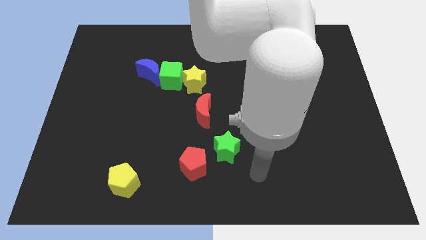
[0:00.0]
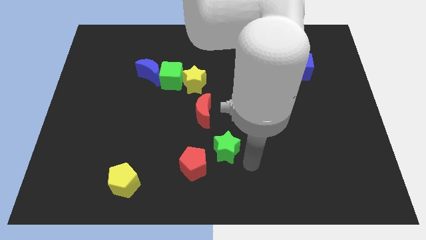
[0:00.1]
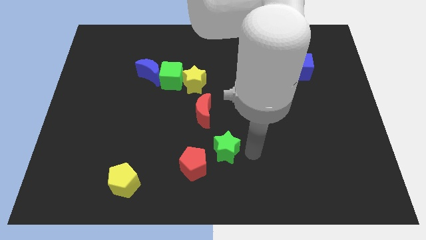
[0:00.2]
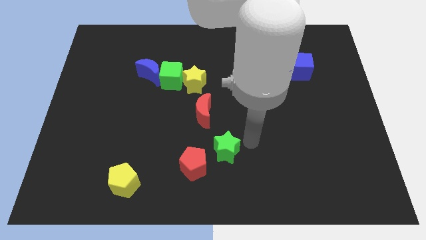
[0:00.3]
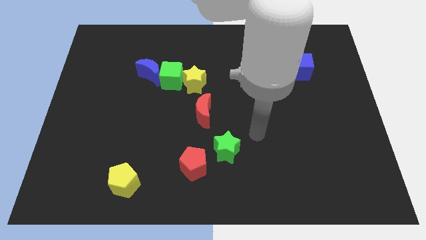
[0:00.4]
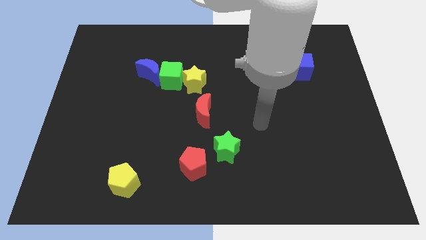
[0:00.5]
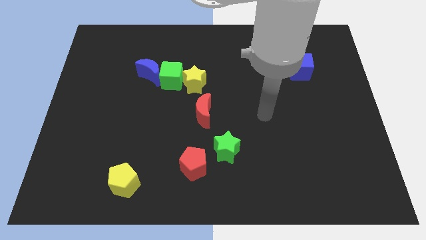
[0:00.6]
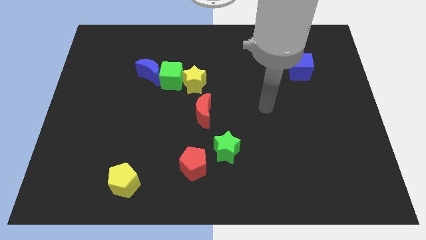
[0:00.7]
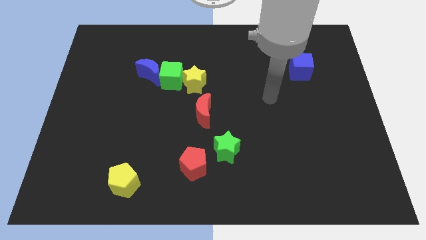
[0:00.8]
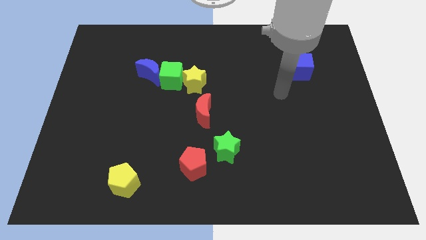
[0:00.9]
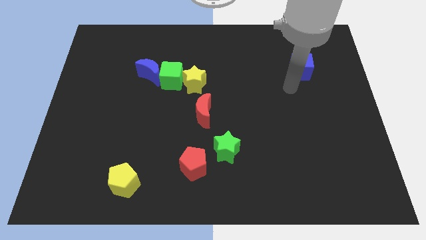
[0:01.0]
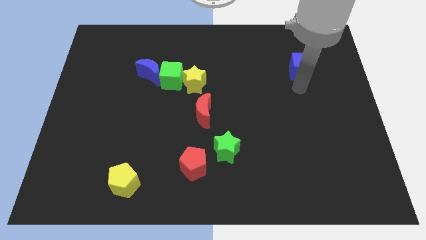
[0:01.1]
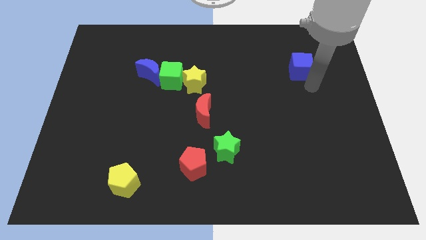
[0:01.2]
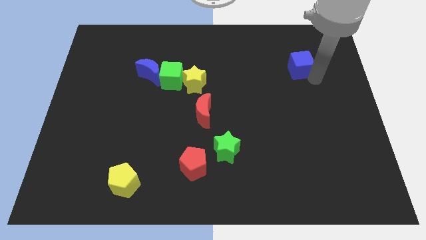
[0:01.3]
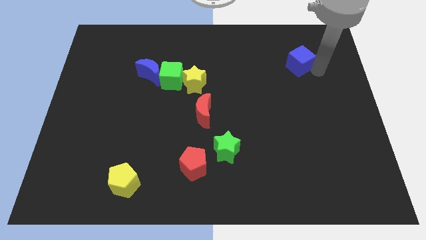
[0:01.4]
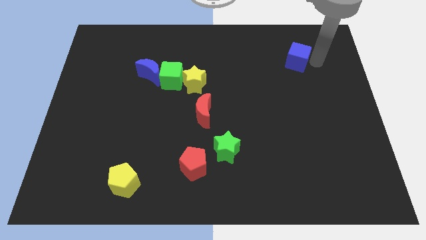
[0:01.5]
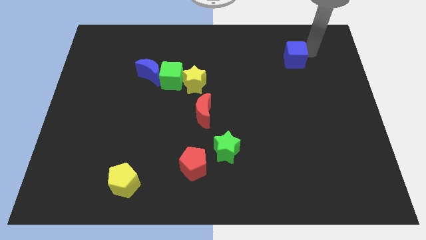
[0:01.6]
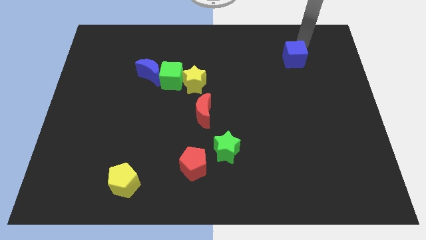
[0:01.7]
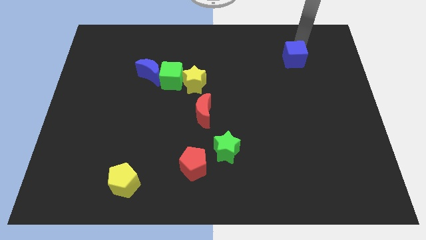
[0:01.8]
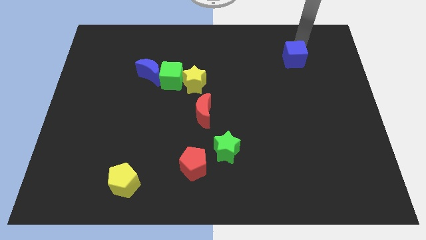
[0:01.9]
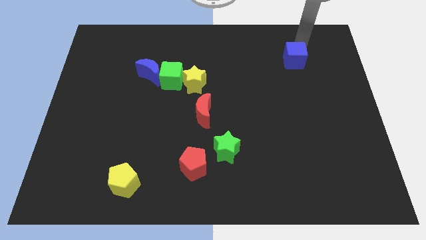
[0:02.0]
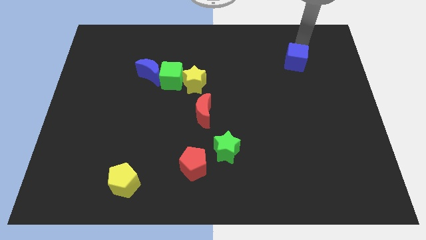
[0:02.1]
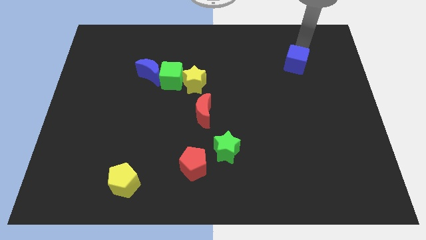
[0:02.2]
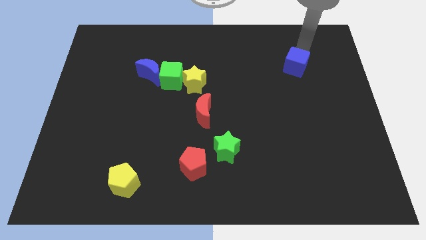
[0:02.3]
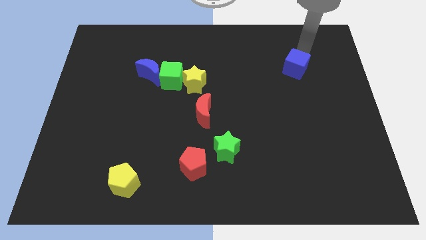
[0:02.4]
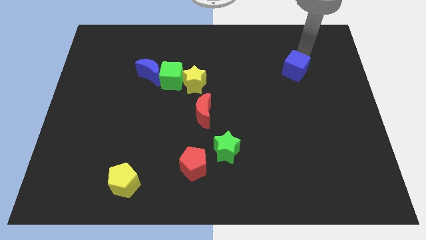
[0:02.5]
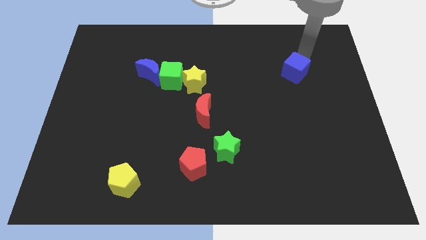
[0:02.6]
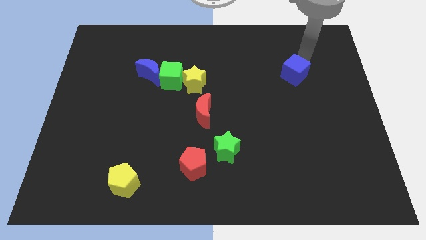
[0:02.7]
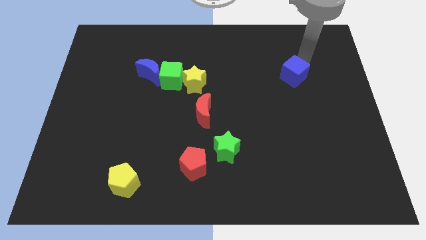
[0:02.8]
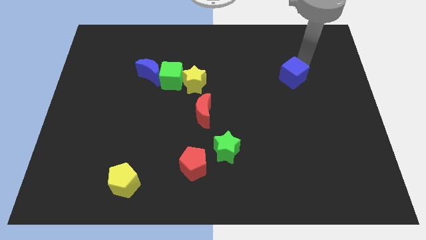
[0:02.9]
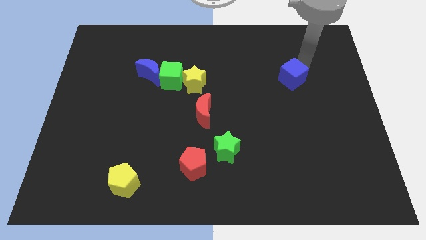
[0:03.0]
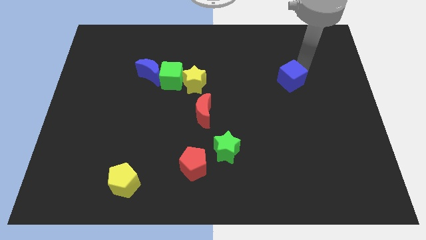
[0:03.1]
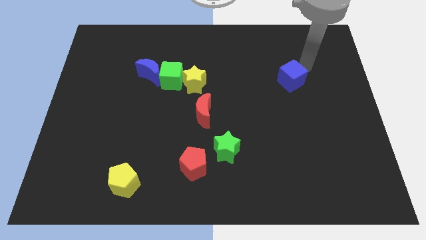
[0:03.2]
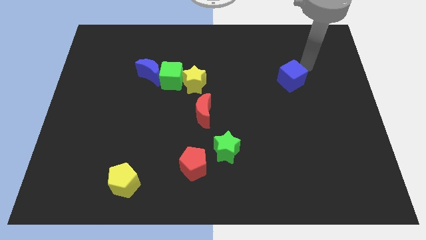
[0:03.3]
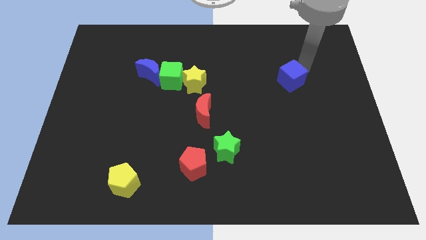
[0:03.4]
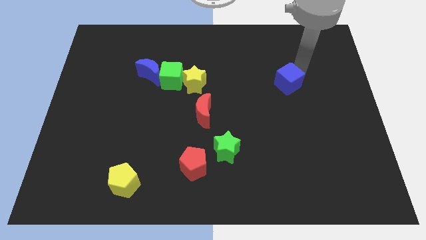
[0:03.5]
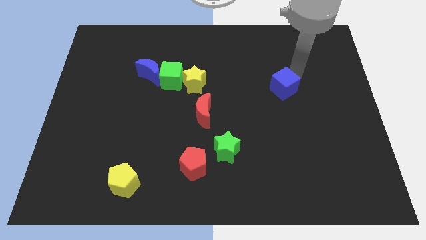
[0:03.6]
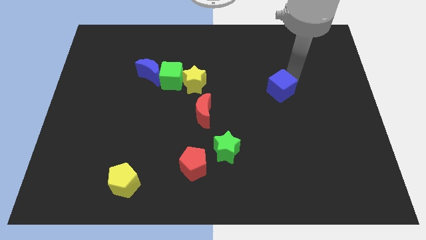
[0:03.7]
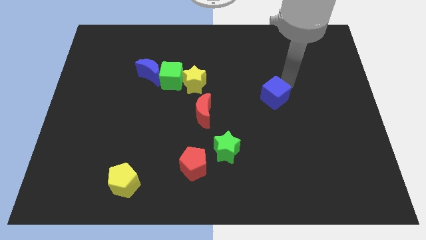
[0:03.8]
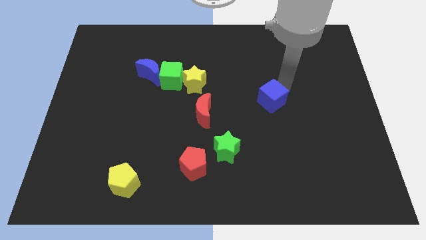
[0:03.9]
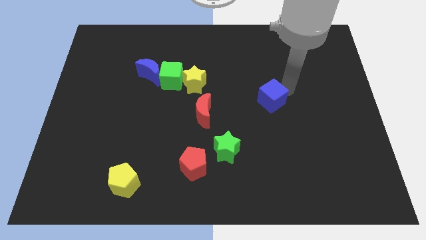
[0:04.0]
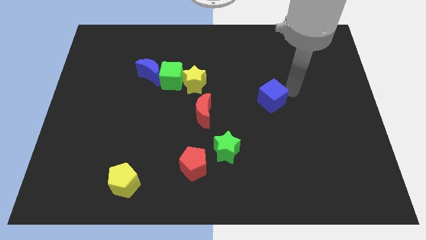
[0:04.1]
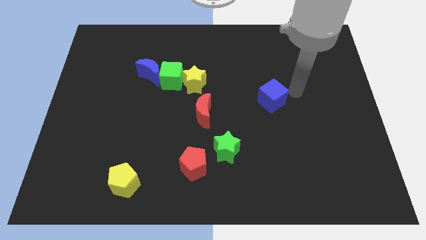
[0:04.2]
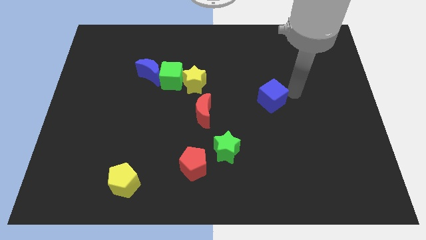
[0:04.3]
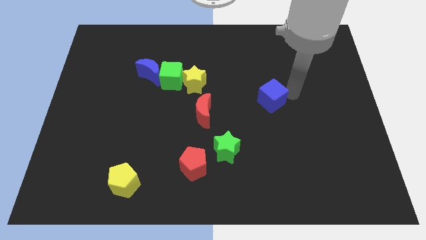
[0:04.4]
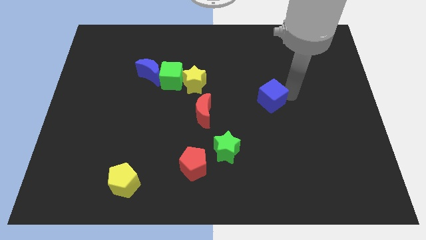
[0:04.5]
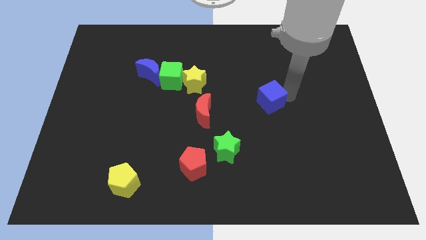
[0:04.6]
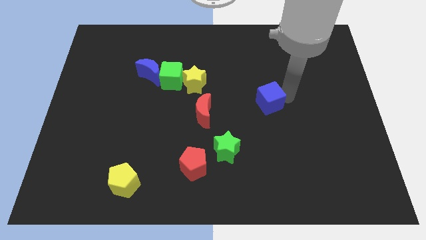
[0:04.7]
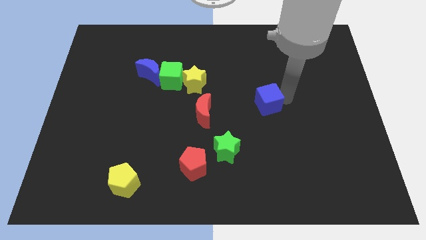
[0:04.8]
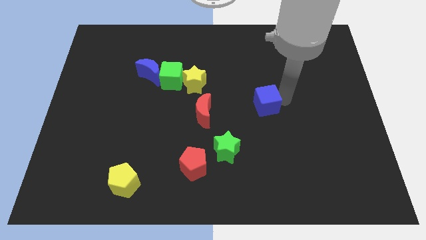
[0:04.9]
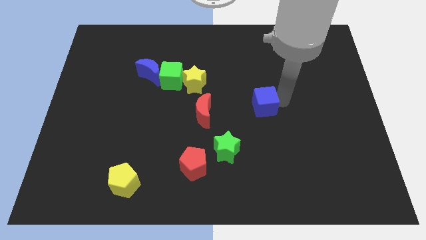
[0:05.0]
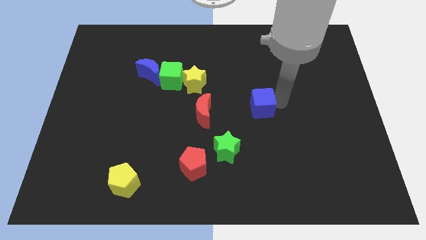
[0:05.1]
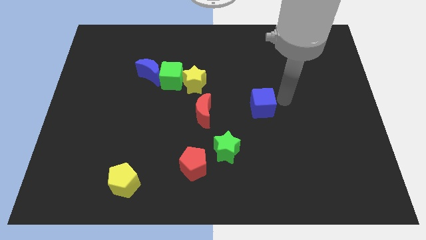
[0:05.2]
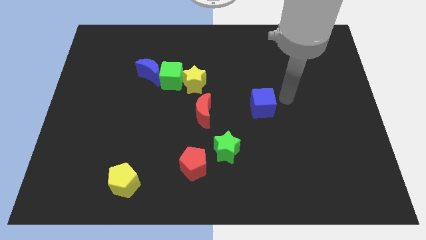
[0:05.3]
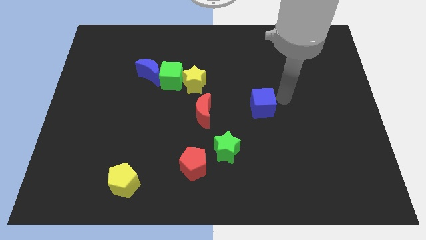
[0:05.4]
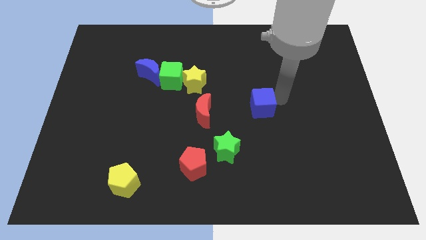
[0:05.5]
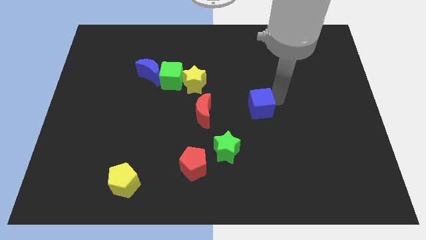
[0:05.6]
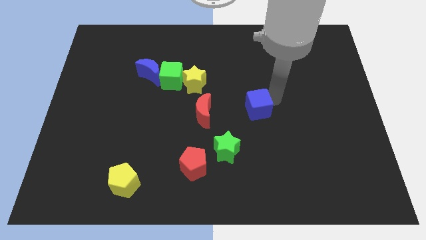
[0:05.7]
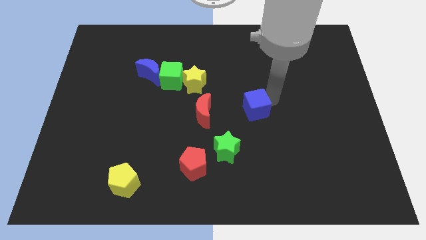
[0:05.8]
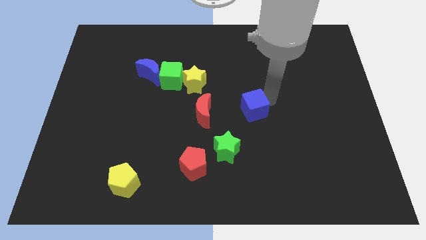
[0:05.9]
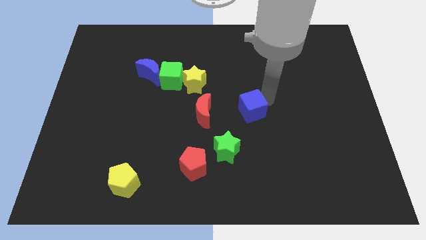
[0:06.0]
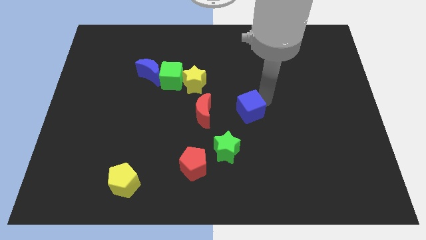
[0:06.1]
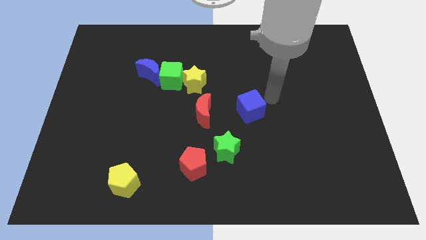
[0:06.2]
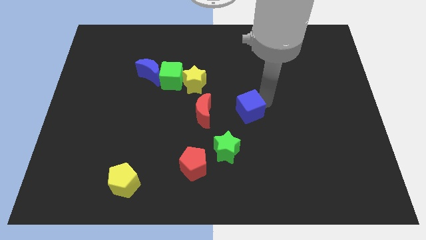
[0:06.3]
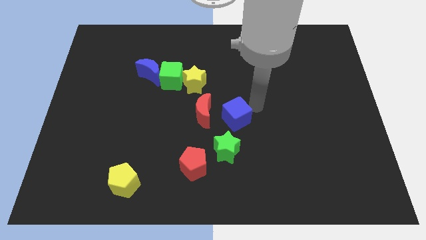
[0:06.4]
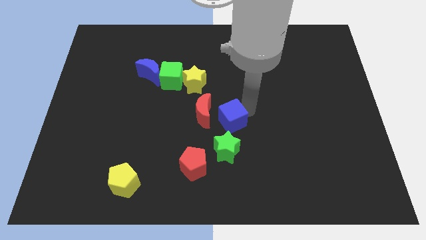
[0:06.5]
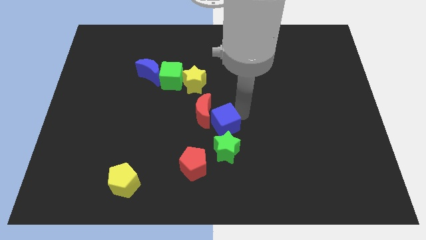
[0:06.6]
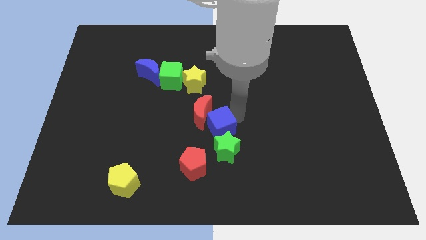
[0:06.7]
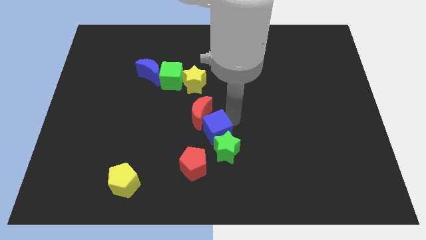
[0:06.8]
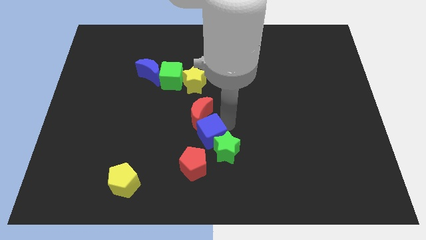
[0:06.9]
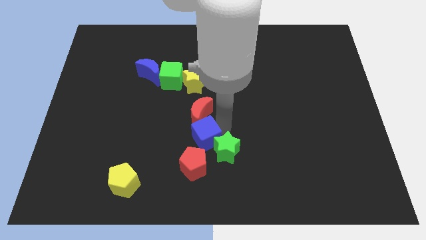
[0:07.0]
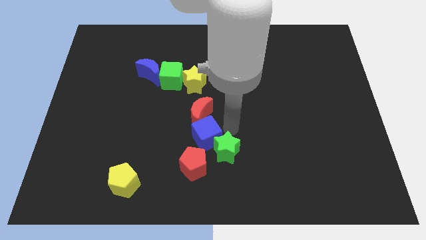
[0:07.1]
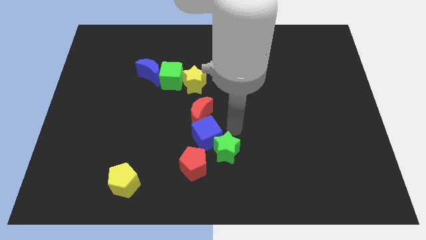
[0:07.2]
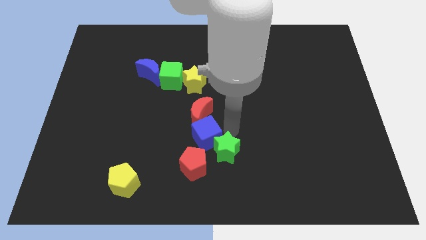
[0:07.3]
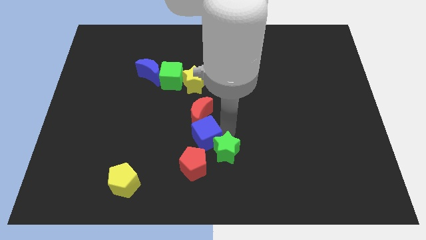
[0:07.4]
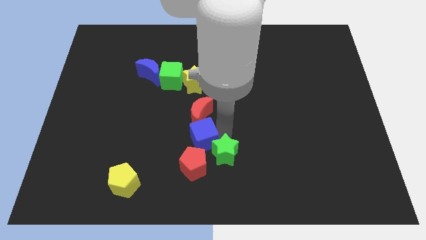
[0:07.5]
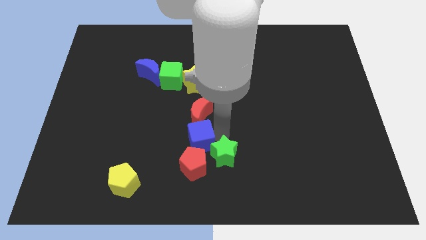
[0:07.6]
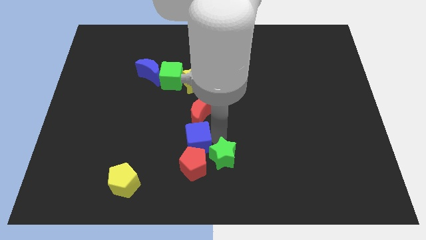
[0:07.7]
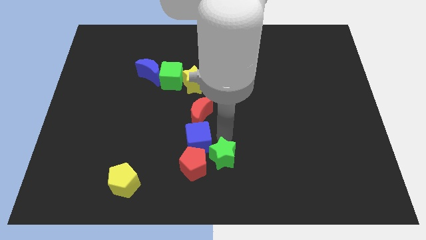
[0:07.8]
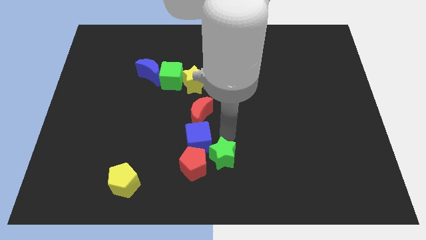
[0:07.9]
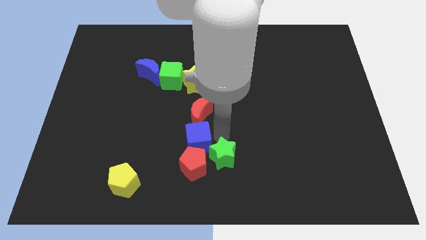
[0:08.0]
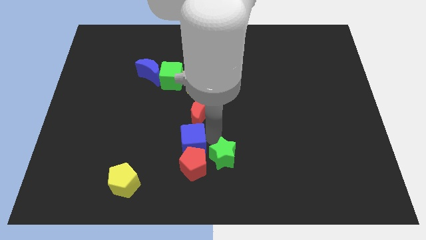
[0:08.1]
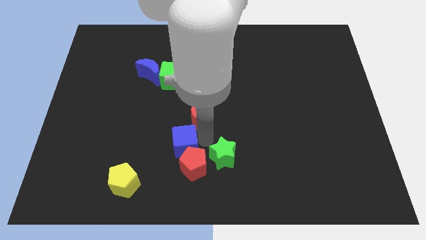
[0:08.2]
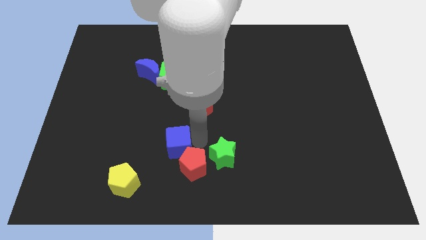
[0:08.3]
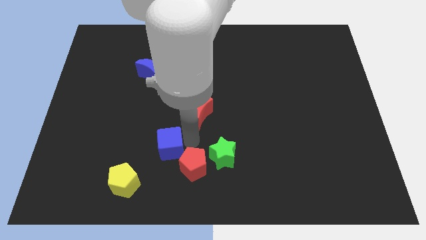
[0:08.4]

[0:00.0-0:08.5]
move the blue cube to the top right of the yellow pentagon
